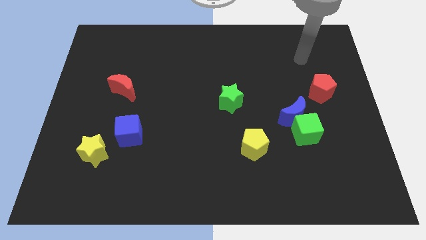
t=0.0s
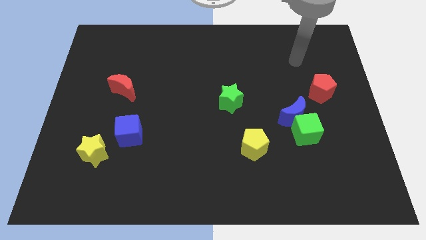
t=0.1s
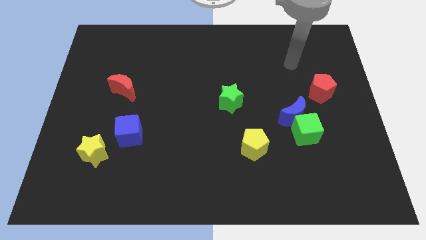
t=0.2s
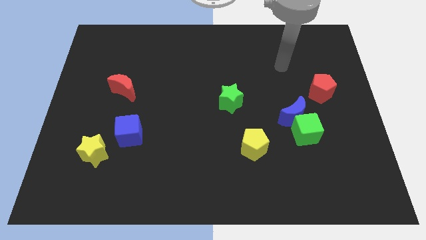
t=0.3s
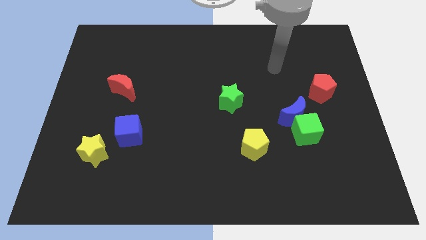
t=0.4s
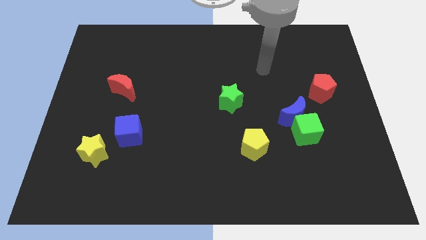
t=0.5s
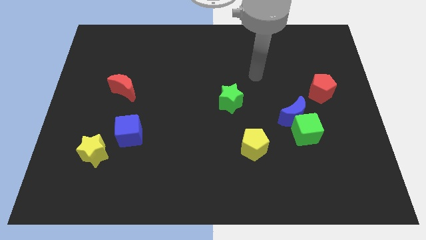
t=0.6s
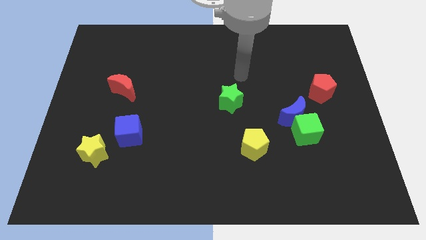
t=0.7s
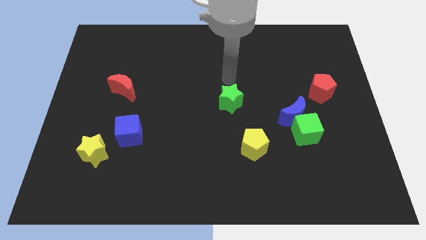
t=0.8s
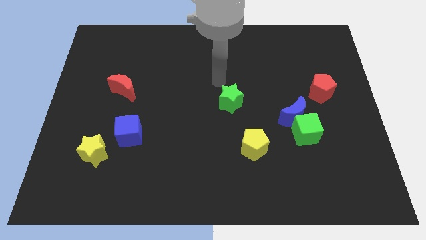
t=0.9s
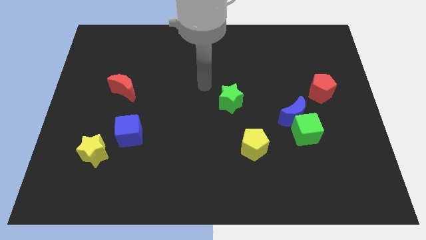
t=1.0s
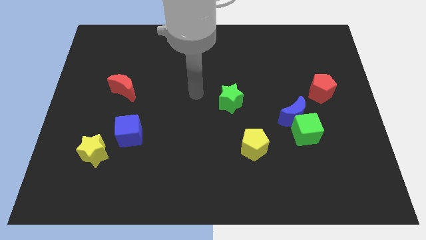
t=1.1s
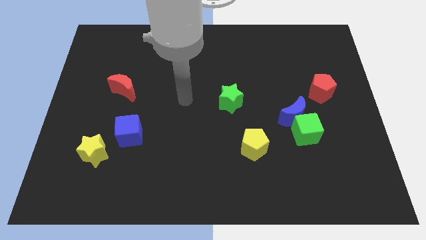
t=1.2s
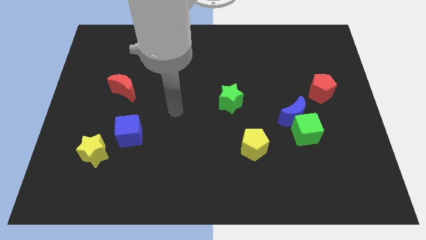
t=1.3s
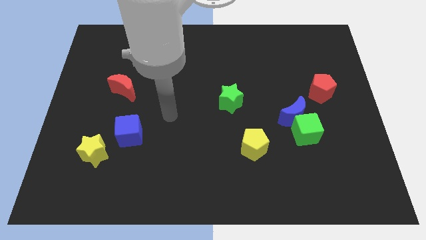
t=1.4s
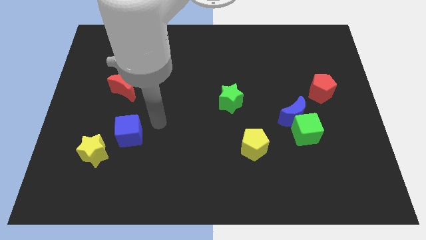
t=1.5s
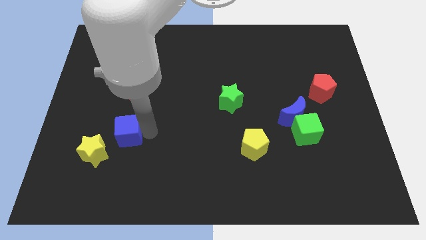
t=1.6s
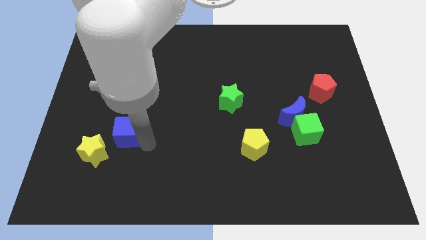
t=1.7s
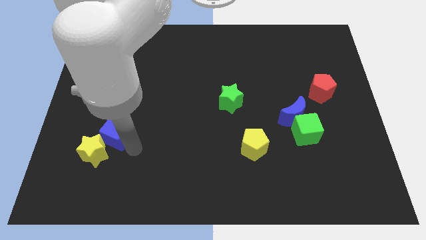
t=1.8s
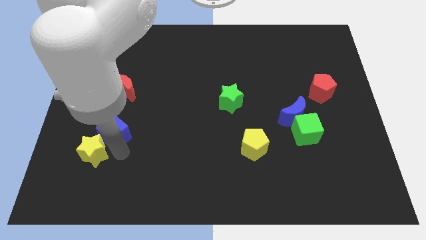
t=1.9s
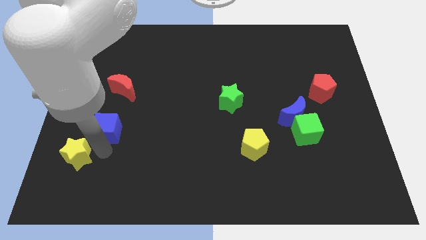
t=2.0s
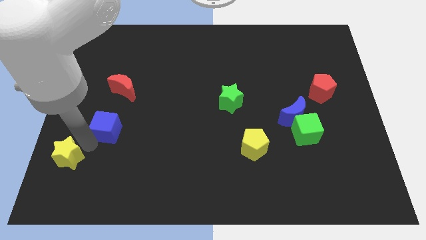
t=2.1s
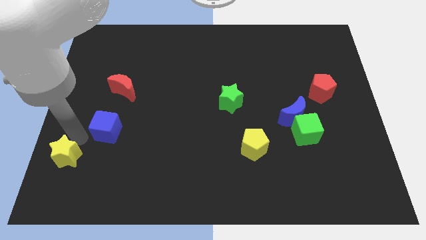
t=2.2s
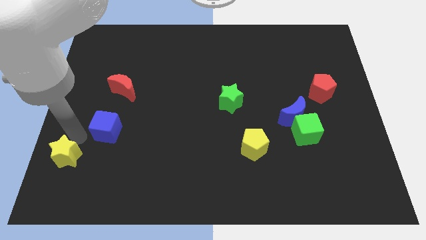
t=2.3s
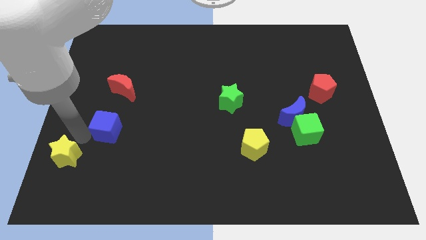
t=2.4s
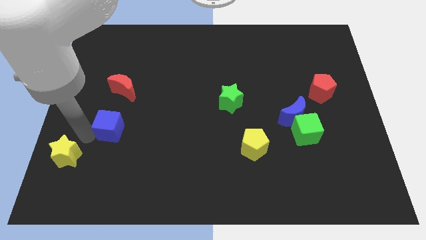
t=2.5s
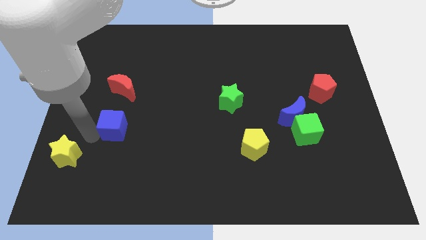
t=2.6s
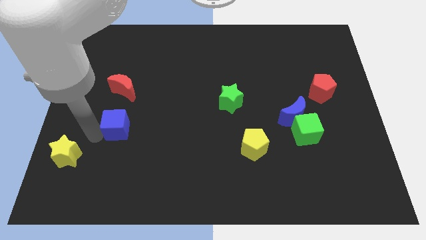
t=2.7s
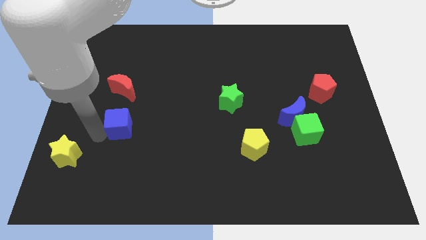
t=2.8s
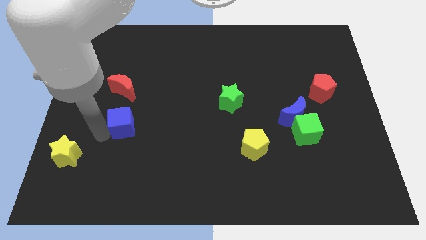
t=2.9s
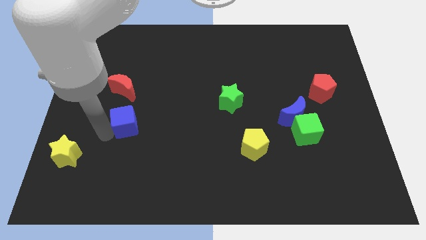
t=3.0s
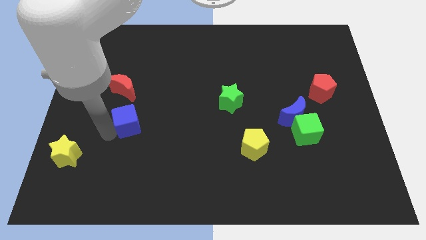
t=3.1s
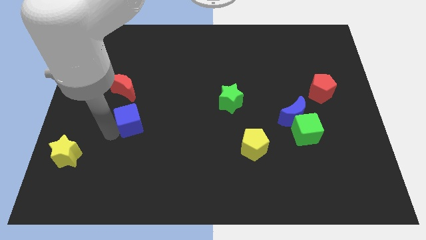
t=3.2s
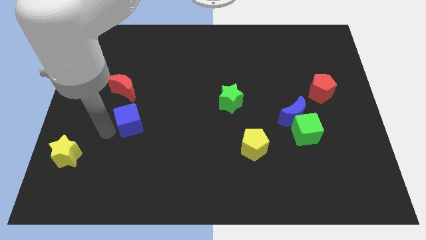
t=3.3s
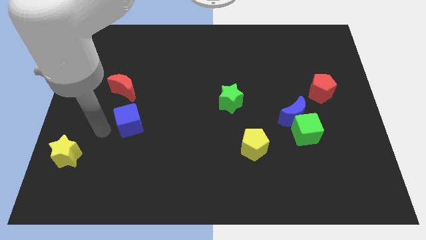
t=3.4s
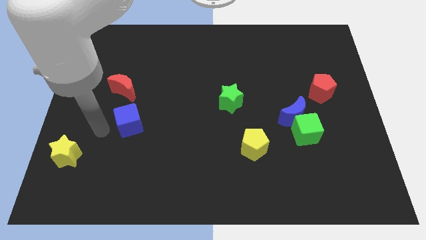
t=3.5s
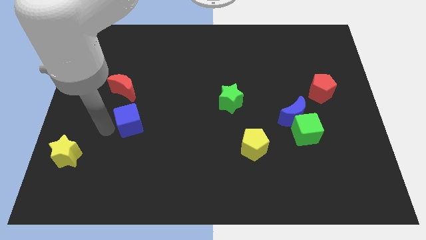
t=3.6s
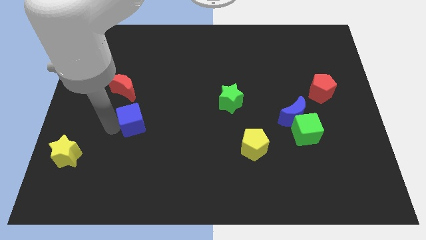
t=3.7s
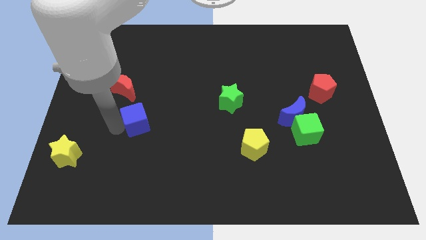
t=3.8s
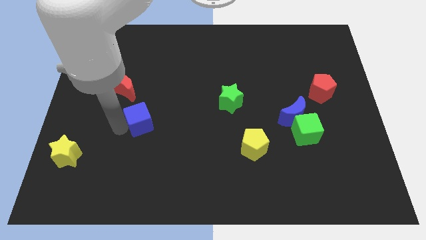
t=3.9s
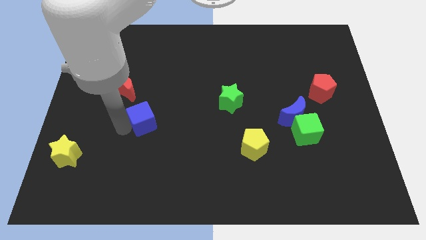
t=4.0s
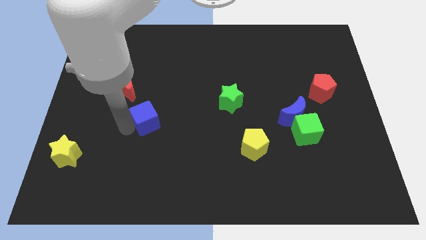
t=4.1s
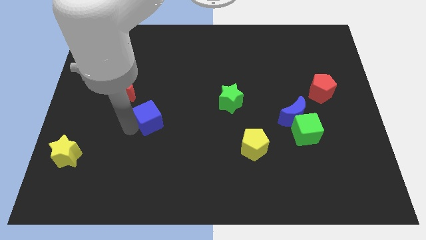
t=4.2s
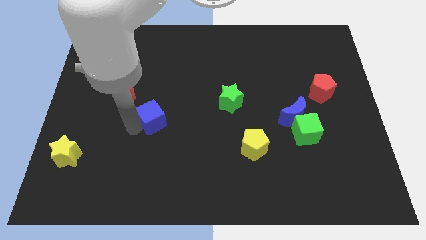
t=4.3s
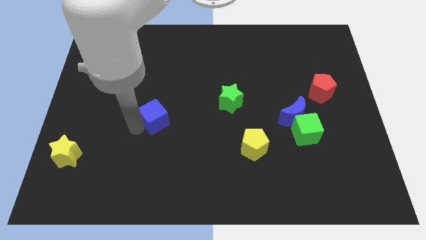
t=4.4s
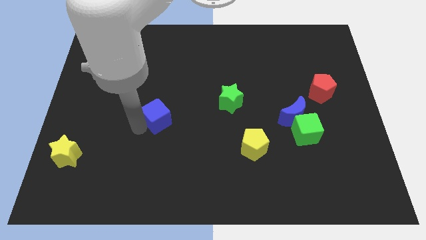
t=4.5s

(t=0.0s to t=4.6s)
slightly slide the blue cube up and right

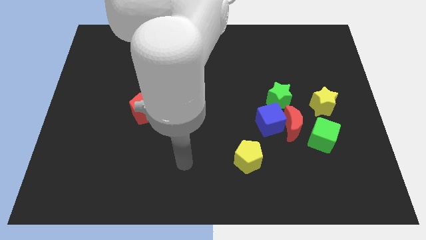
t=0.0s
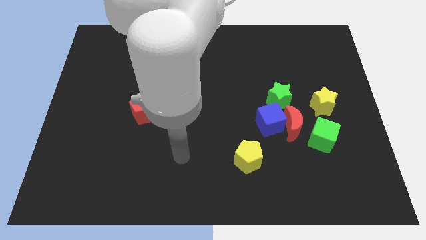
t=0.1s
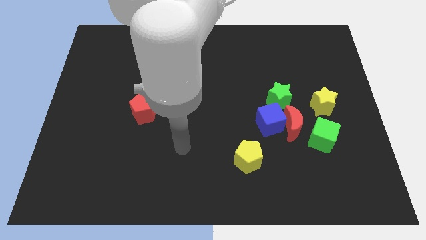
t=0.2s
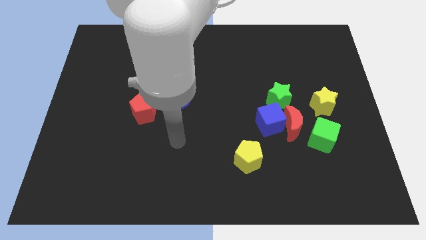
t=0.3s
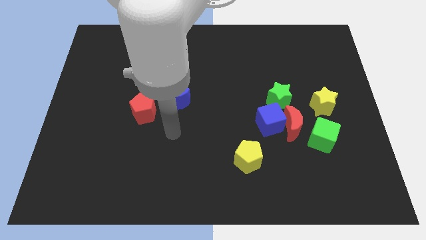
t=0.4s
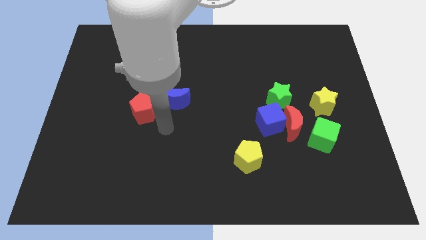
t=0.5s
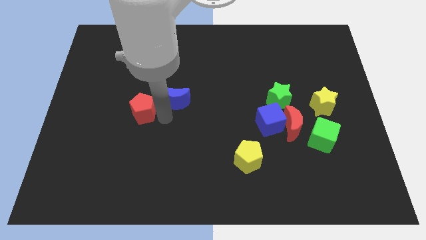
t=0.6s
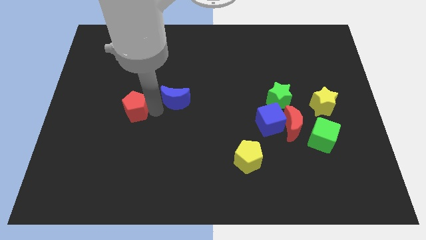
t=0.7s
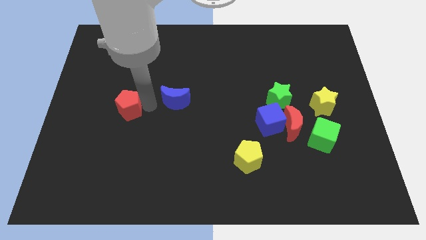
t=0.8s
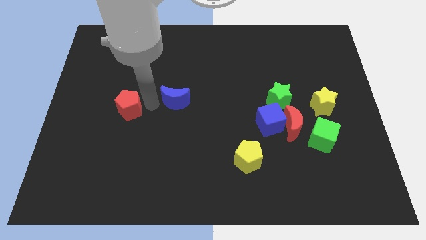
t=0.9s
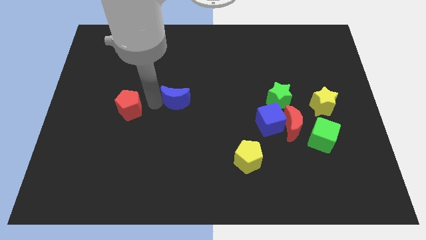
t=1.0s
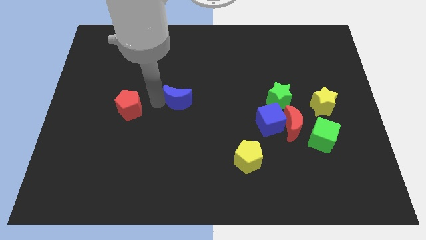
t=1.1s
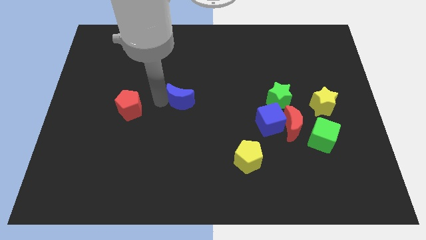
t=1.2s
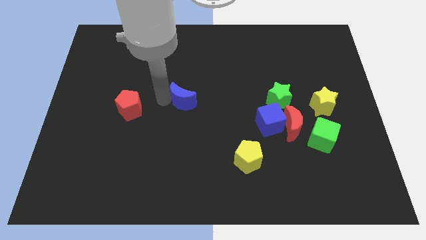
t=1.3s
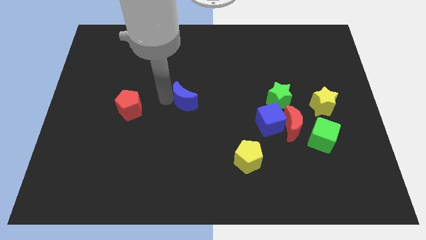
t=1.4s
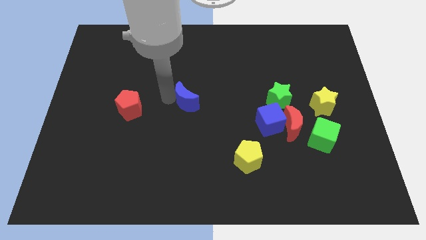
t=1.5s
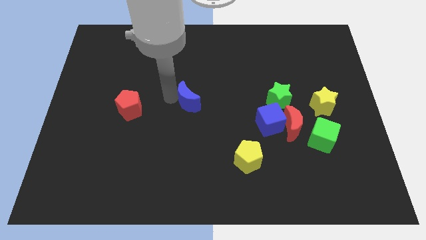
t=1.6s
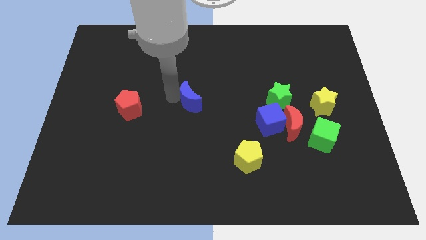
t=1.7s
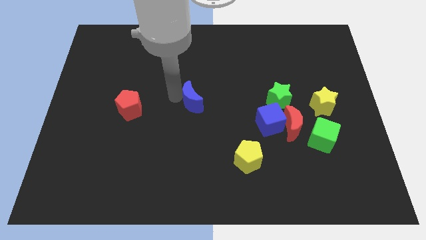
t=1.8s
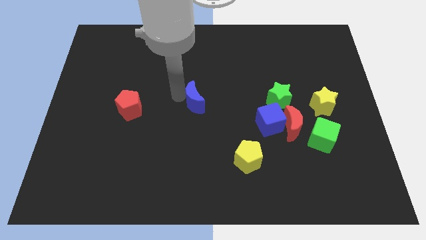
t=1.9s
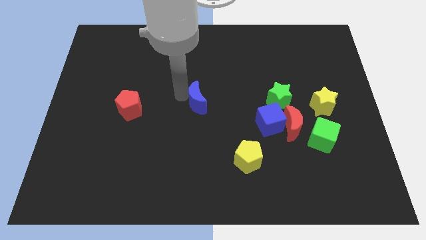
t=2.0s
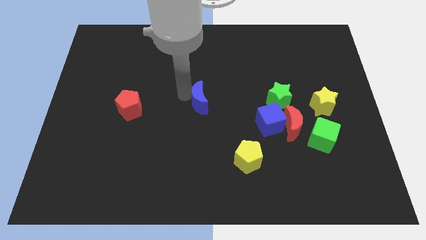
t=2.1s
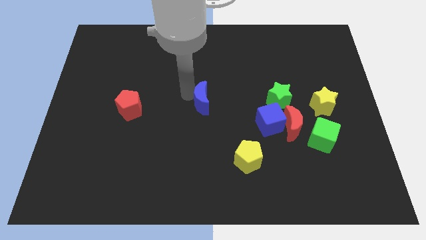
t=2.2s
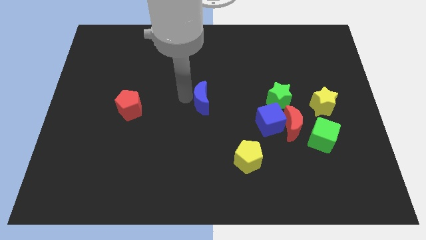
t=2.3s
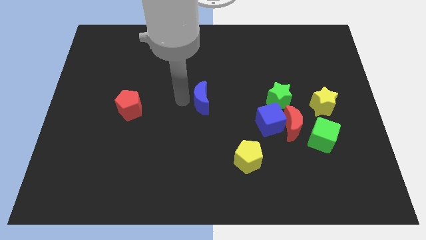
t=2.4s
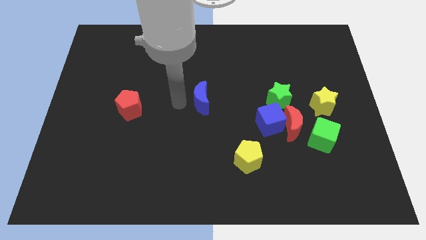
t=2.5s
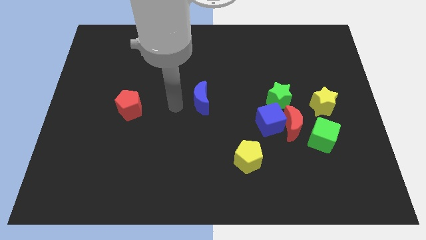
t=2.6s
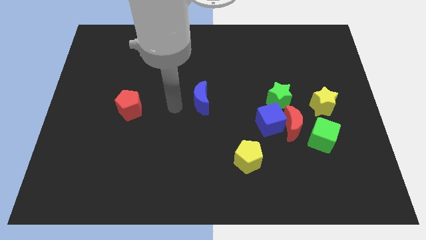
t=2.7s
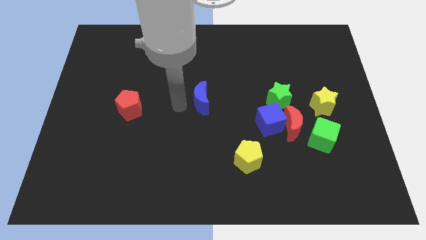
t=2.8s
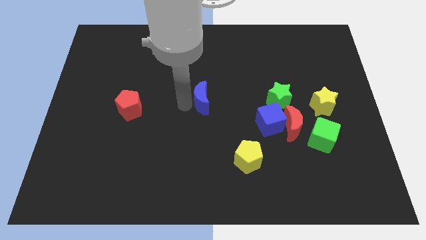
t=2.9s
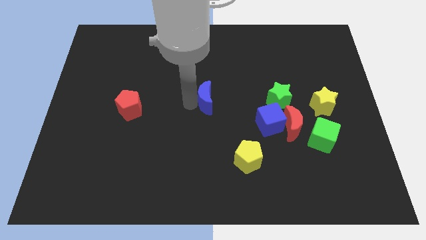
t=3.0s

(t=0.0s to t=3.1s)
move the blue moon a little bit right

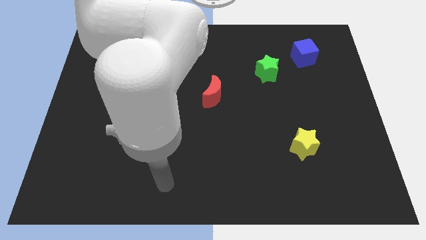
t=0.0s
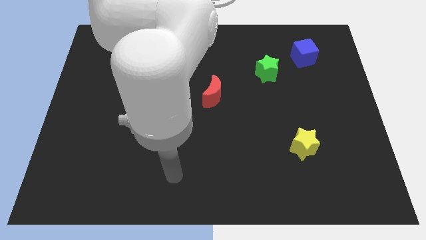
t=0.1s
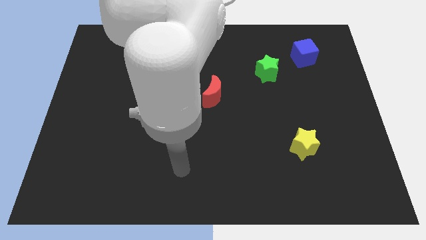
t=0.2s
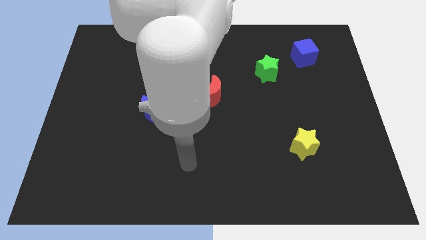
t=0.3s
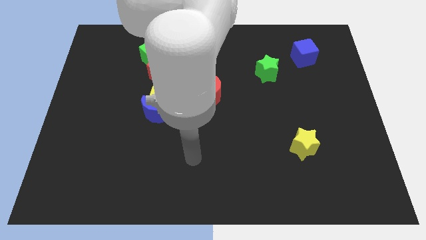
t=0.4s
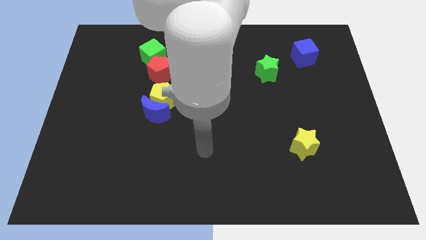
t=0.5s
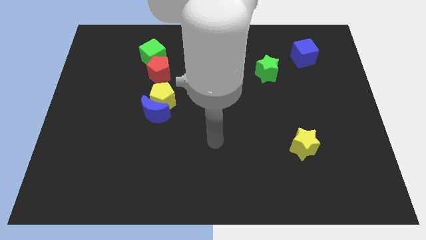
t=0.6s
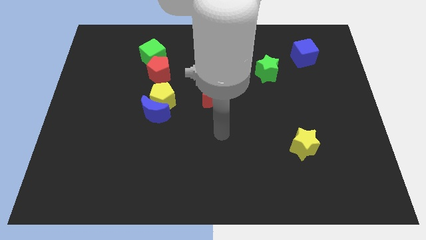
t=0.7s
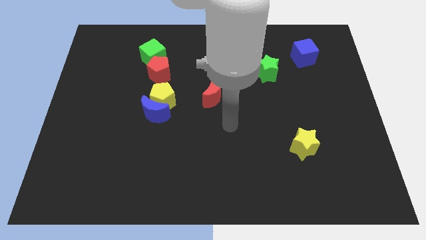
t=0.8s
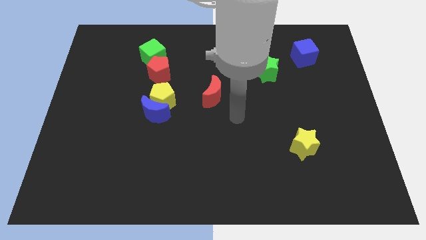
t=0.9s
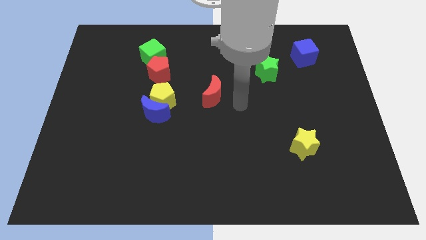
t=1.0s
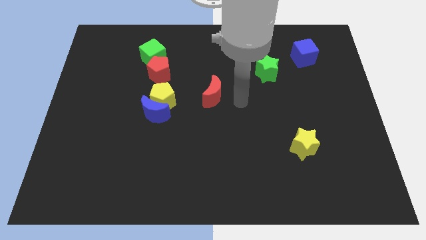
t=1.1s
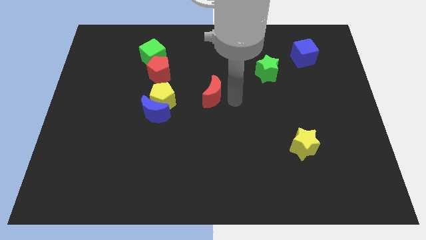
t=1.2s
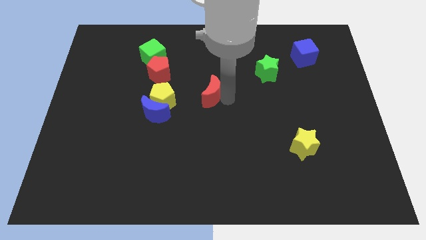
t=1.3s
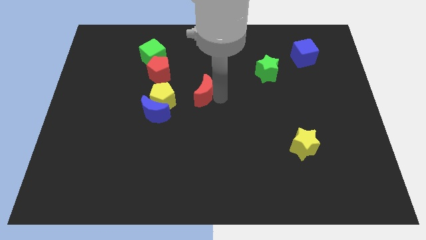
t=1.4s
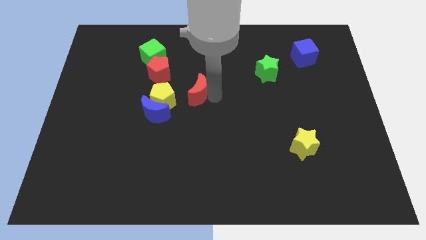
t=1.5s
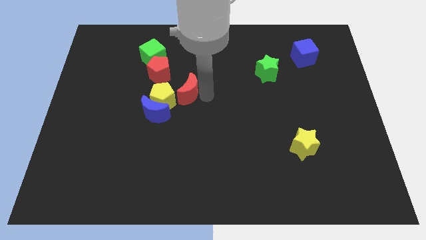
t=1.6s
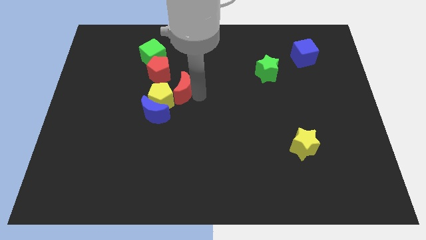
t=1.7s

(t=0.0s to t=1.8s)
move the red moon a bit left
